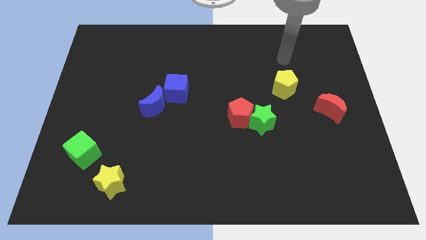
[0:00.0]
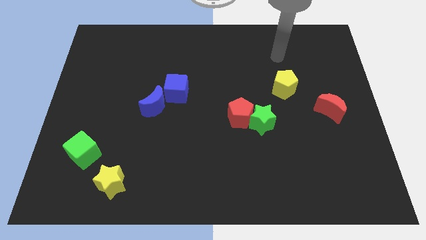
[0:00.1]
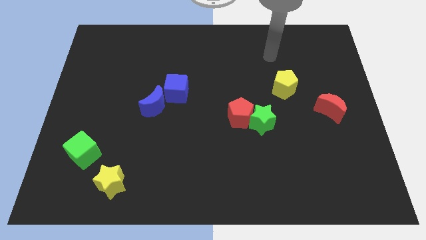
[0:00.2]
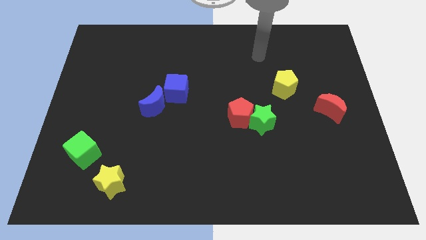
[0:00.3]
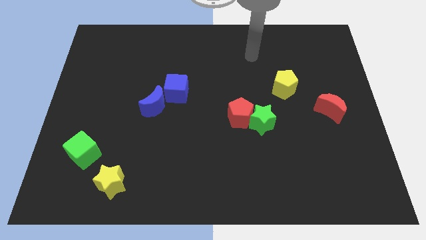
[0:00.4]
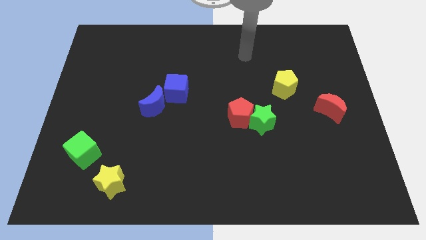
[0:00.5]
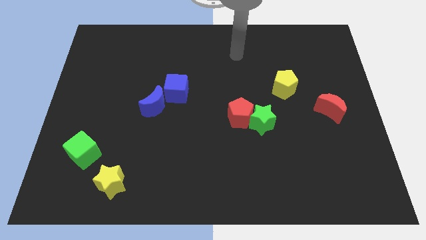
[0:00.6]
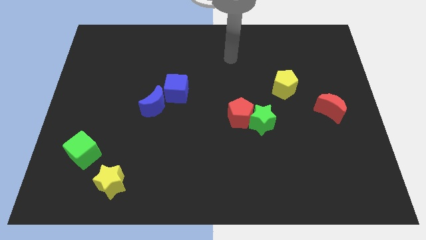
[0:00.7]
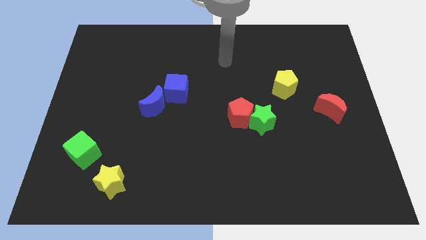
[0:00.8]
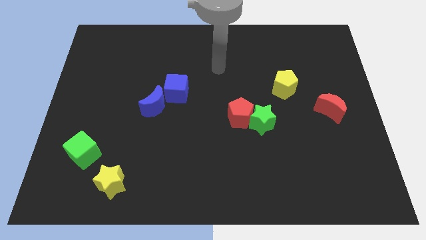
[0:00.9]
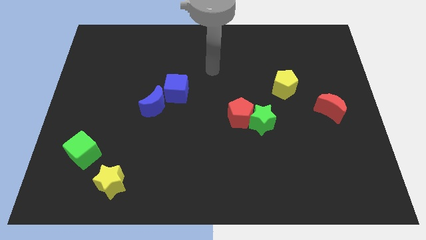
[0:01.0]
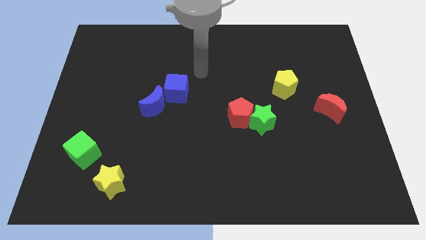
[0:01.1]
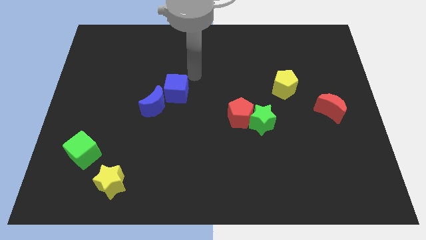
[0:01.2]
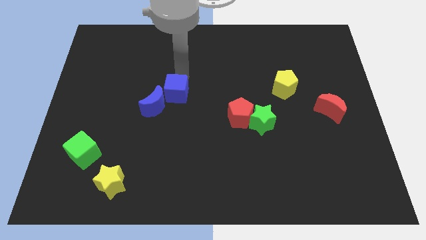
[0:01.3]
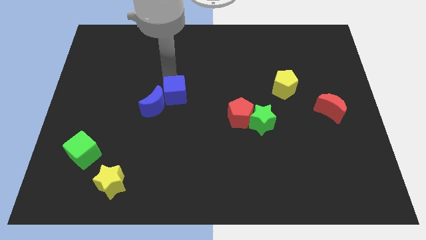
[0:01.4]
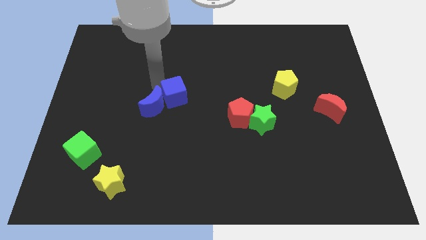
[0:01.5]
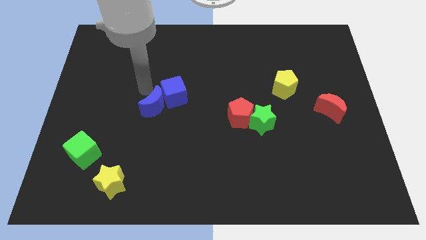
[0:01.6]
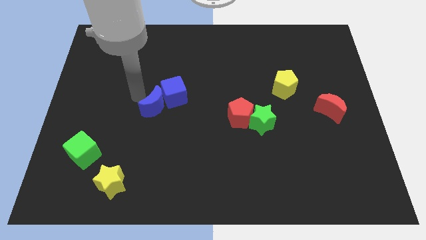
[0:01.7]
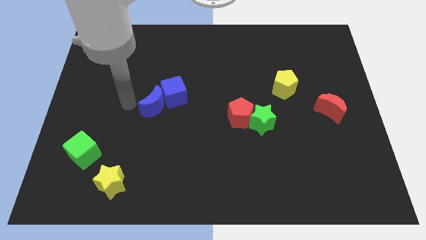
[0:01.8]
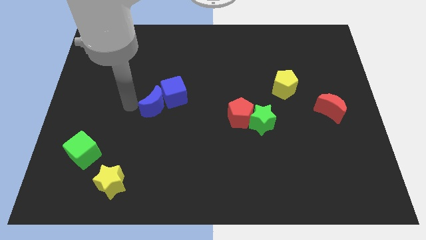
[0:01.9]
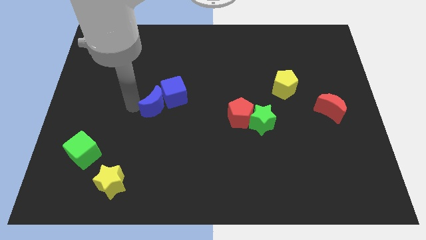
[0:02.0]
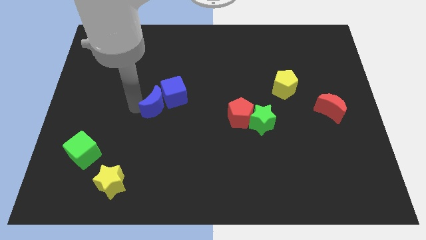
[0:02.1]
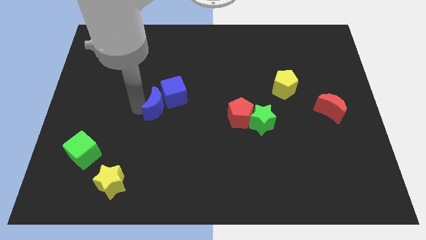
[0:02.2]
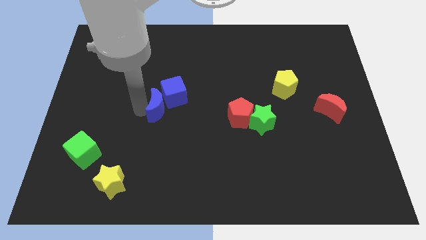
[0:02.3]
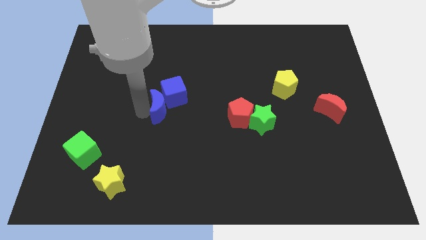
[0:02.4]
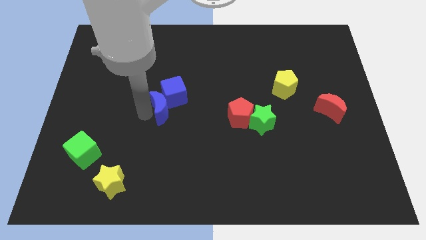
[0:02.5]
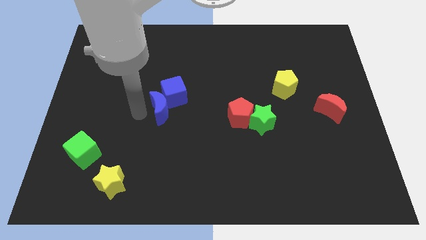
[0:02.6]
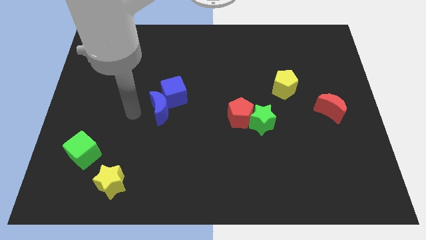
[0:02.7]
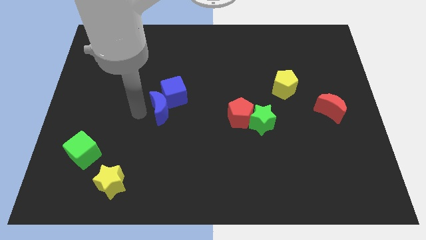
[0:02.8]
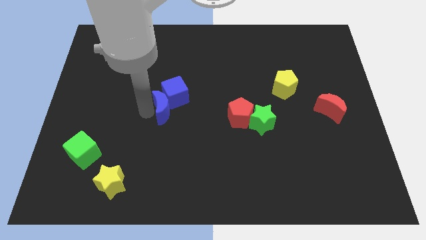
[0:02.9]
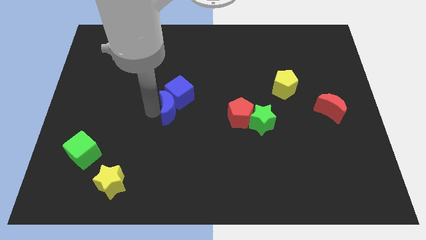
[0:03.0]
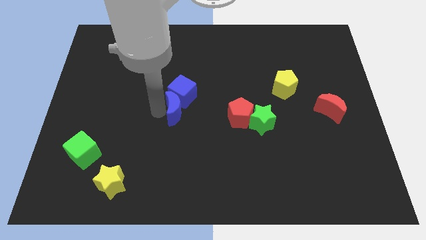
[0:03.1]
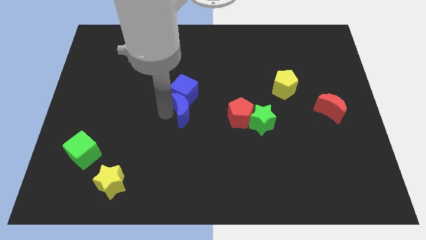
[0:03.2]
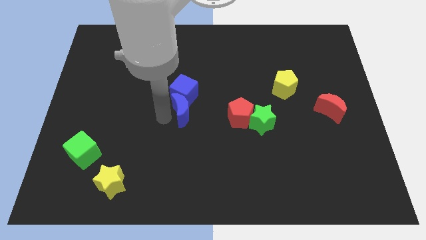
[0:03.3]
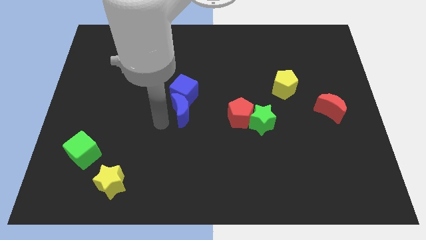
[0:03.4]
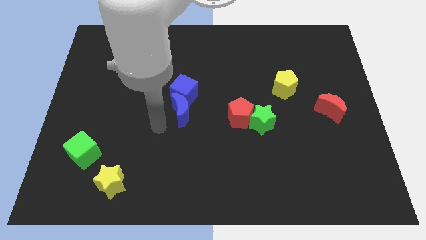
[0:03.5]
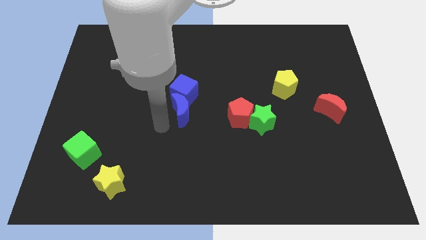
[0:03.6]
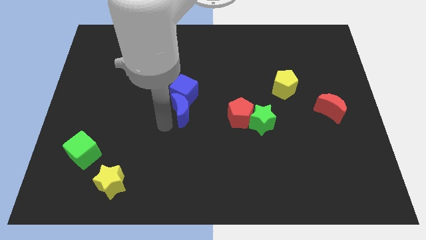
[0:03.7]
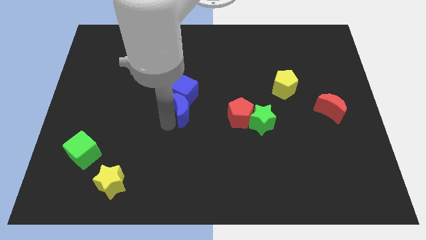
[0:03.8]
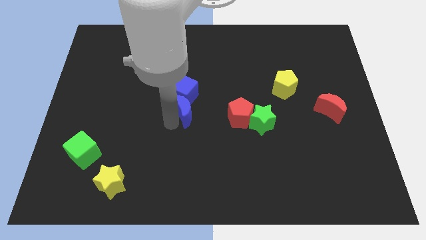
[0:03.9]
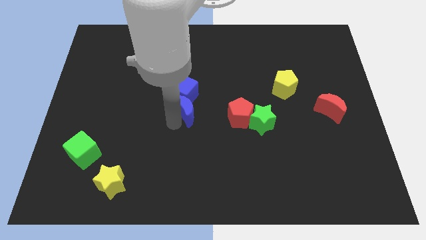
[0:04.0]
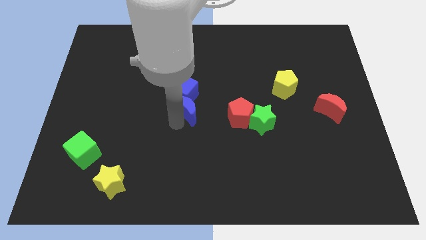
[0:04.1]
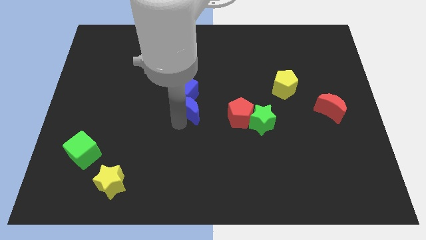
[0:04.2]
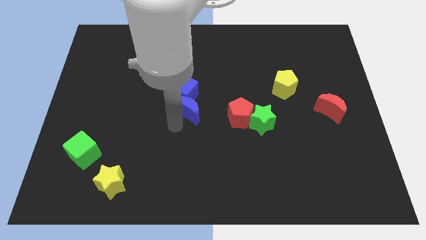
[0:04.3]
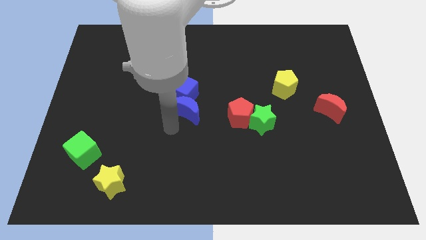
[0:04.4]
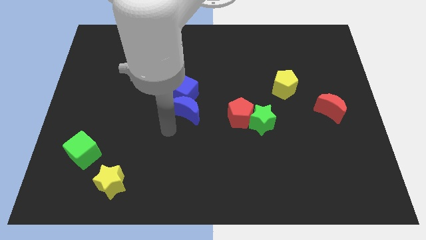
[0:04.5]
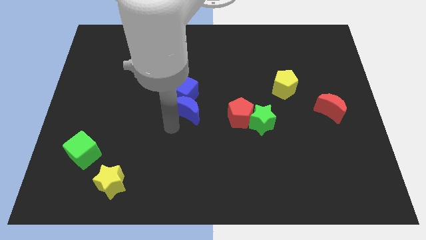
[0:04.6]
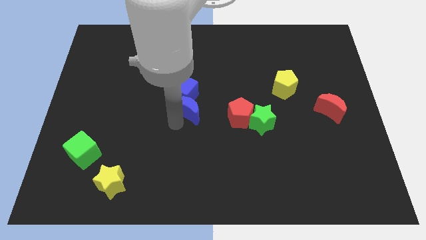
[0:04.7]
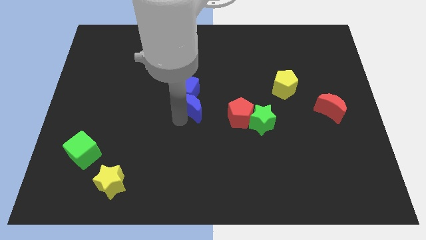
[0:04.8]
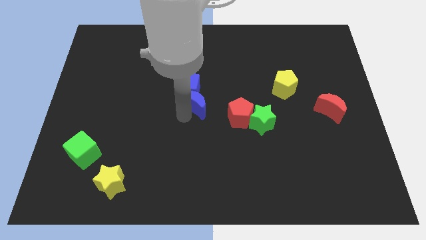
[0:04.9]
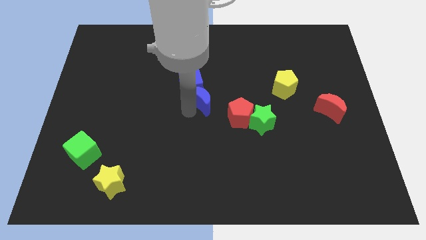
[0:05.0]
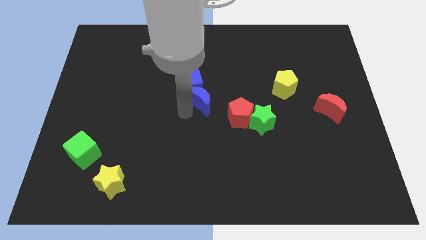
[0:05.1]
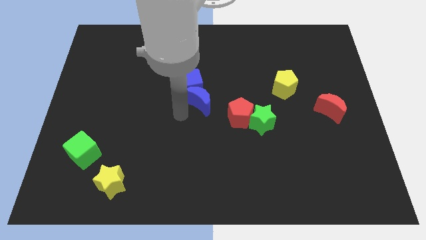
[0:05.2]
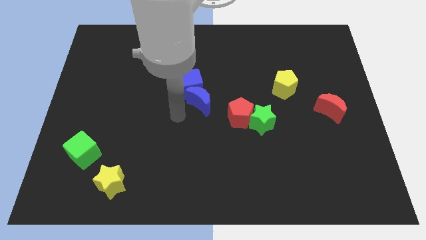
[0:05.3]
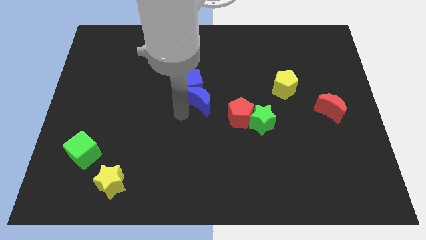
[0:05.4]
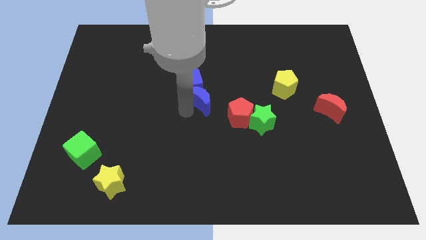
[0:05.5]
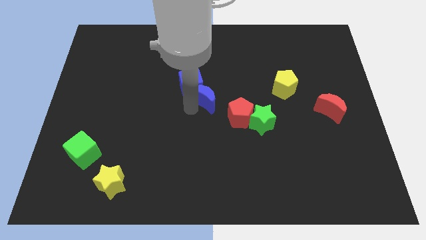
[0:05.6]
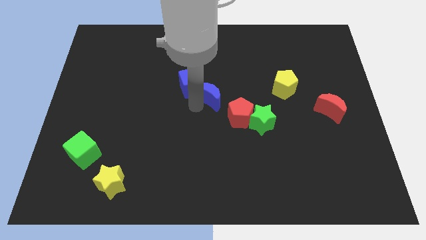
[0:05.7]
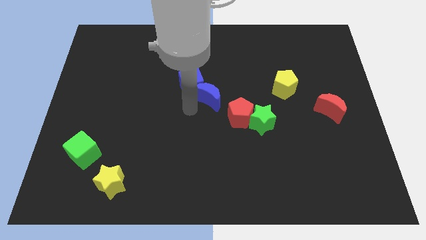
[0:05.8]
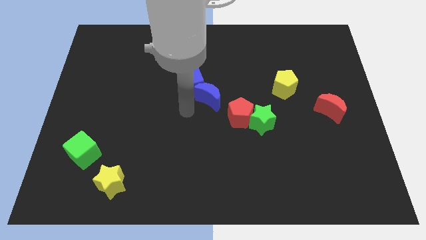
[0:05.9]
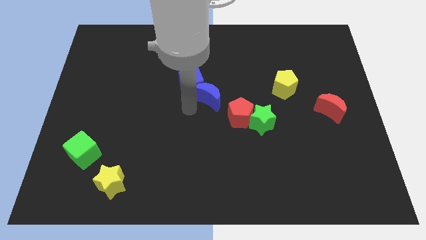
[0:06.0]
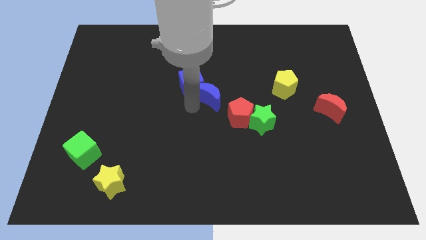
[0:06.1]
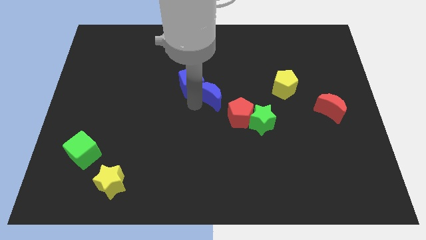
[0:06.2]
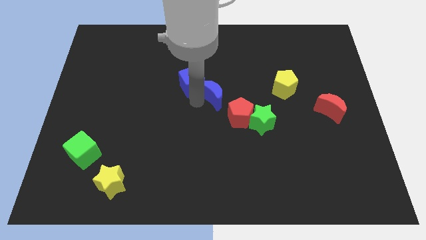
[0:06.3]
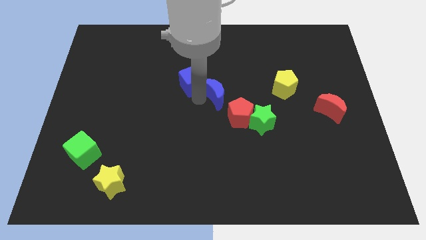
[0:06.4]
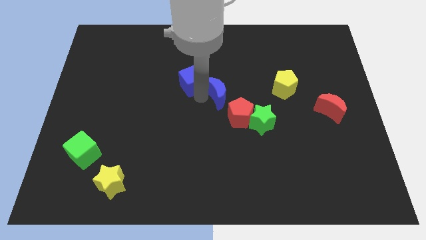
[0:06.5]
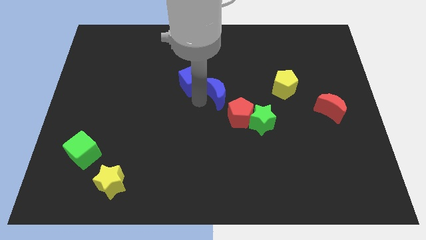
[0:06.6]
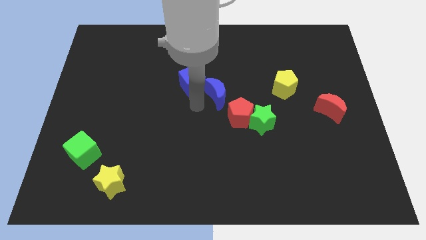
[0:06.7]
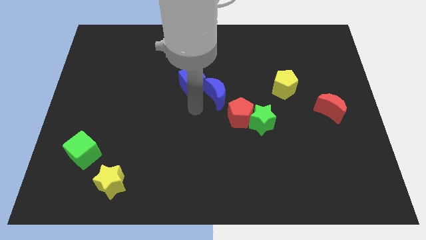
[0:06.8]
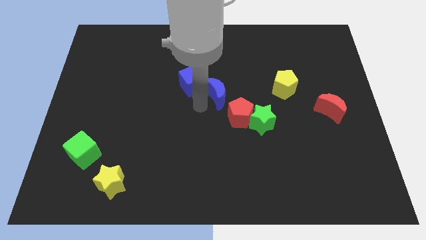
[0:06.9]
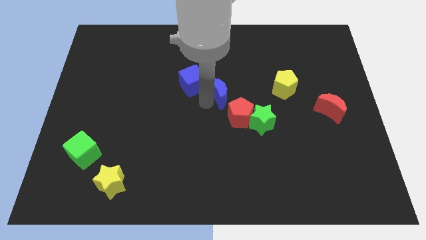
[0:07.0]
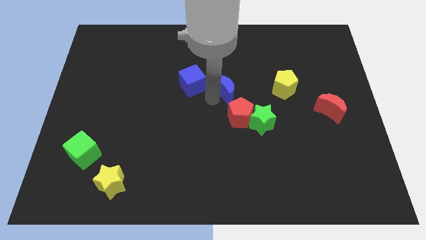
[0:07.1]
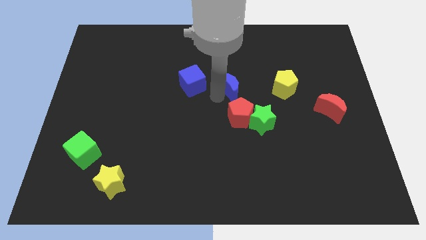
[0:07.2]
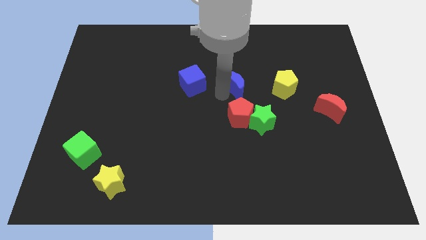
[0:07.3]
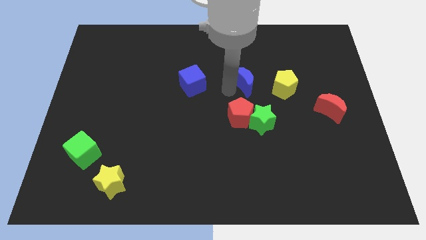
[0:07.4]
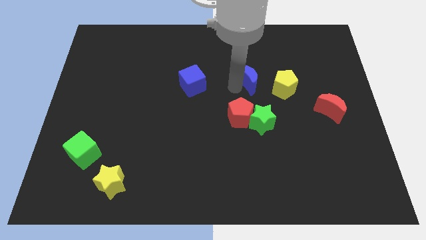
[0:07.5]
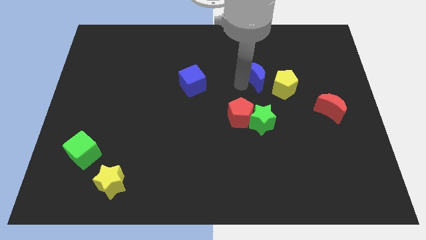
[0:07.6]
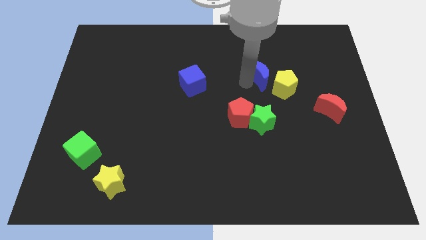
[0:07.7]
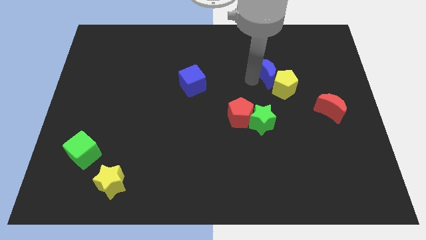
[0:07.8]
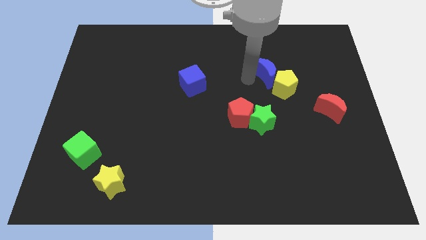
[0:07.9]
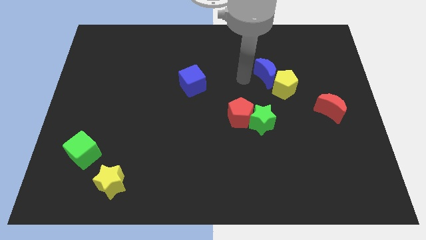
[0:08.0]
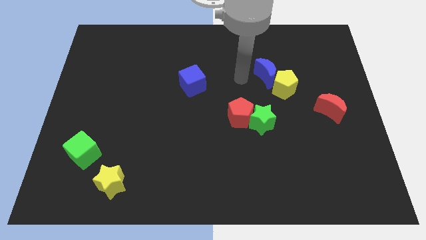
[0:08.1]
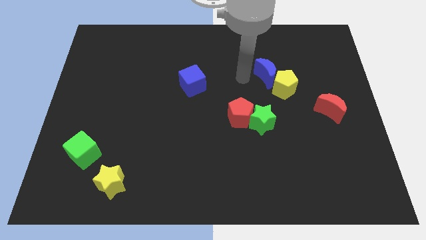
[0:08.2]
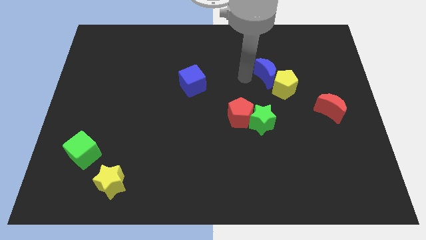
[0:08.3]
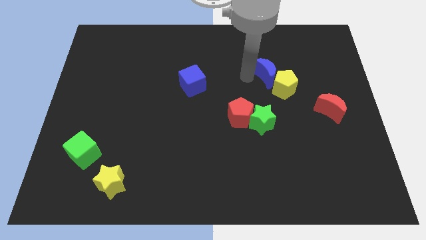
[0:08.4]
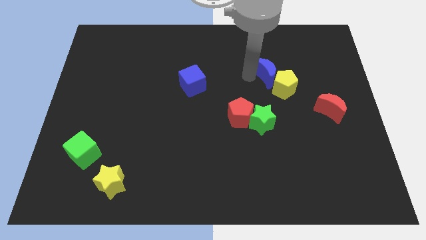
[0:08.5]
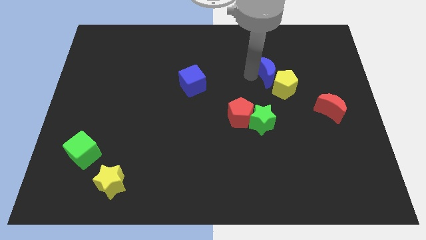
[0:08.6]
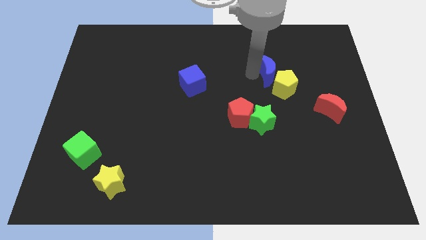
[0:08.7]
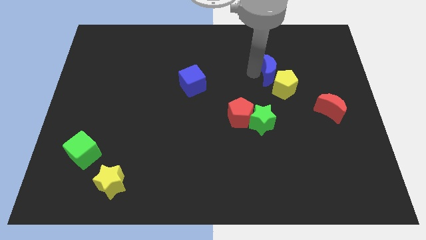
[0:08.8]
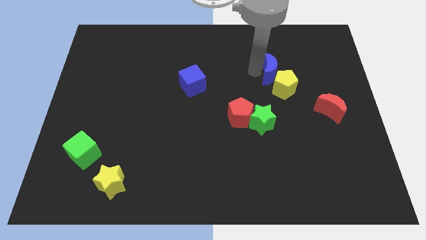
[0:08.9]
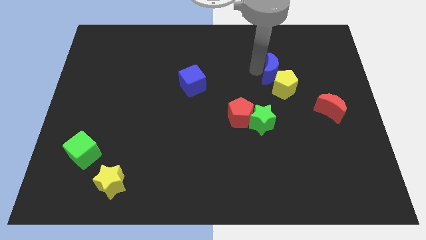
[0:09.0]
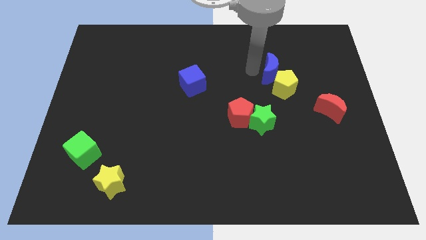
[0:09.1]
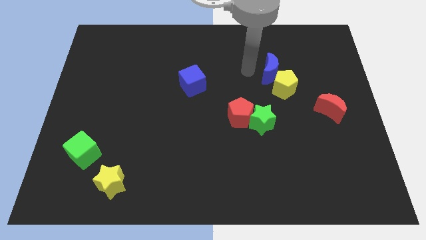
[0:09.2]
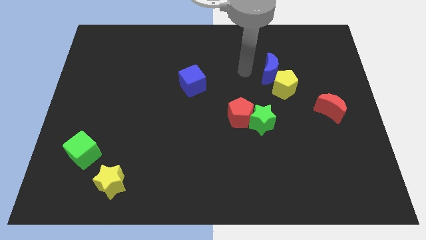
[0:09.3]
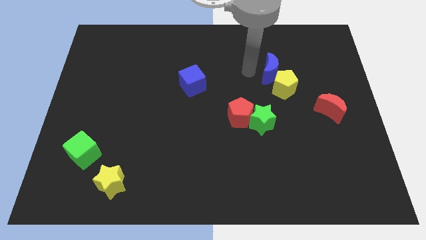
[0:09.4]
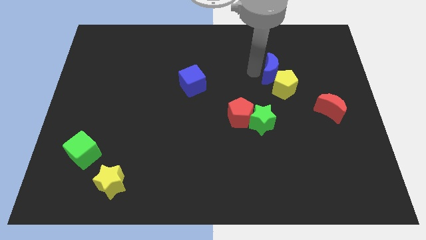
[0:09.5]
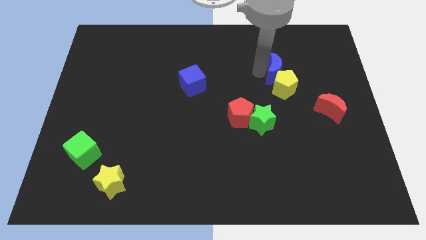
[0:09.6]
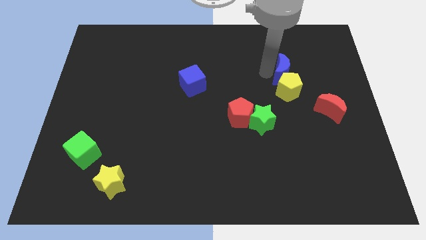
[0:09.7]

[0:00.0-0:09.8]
push the blue moon to the top right side of the yellow pentagon
